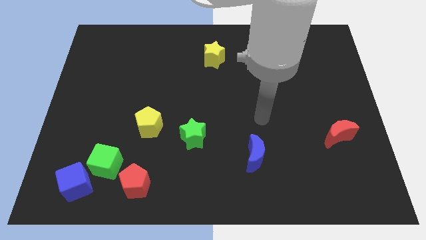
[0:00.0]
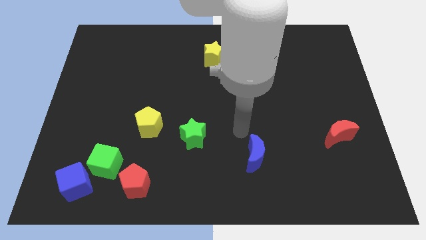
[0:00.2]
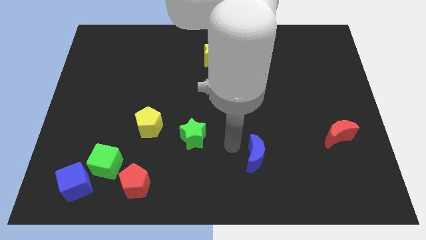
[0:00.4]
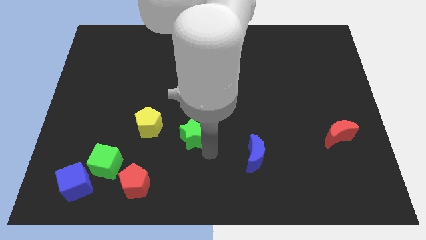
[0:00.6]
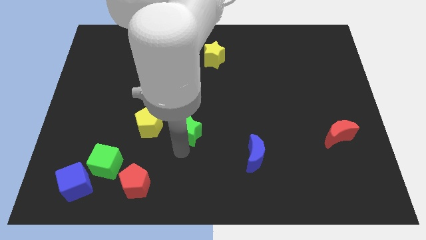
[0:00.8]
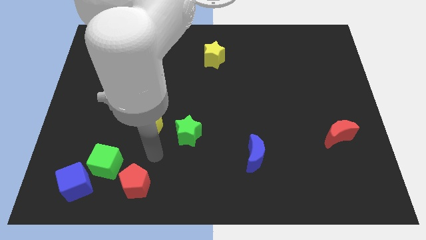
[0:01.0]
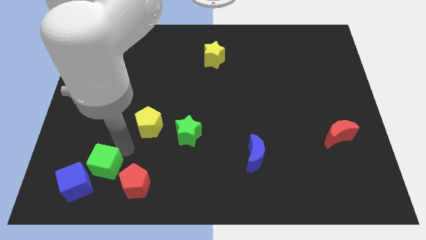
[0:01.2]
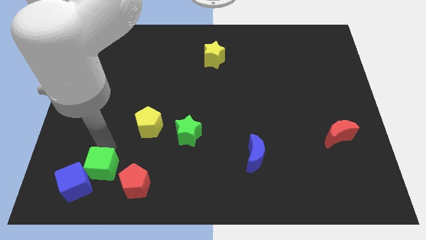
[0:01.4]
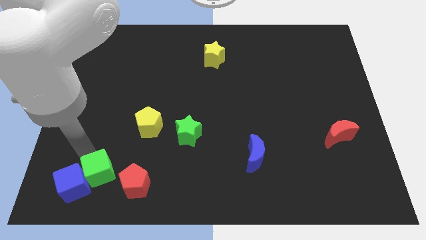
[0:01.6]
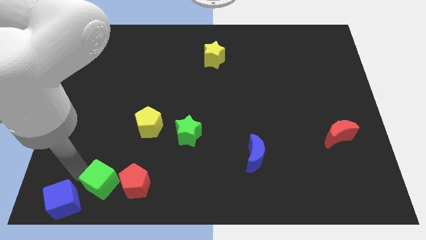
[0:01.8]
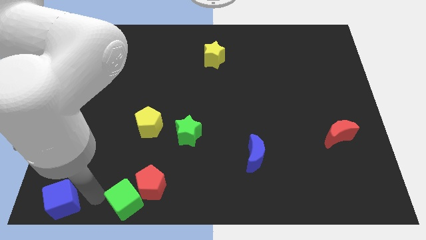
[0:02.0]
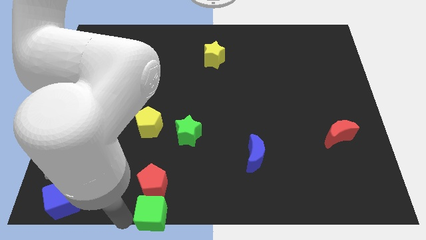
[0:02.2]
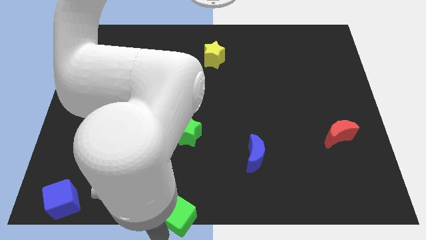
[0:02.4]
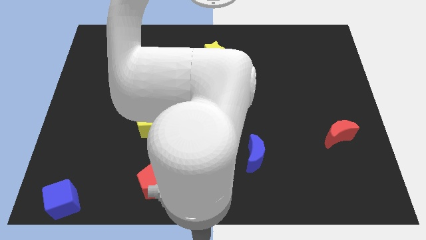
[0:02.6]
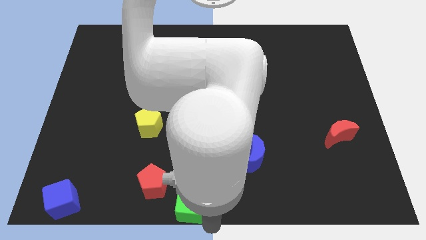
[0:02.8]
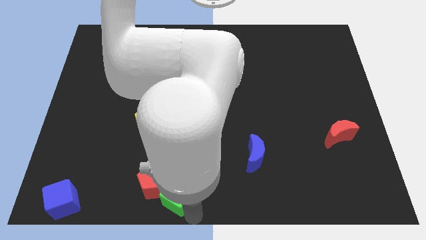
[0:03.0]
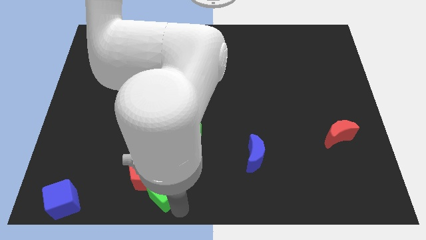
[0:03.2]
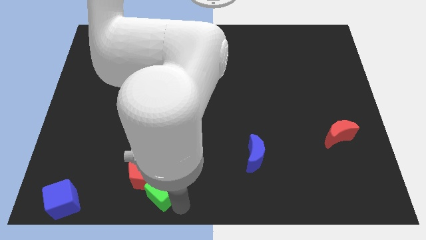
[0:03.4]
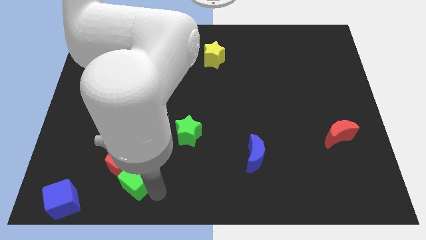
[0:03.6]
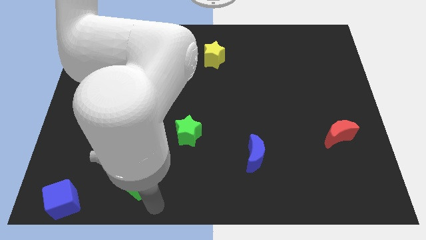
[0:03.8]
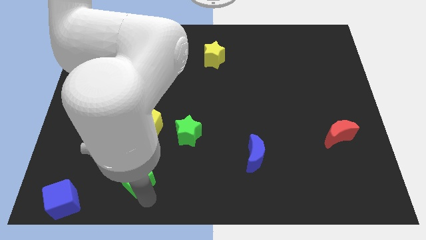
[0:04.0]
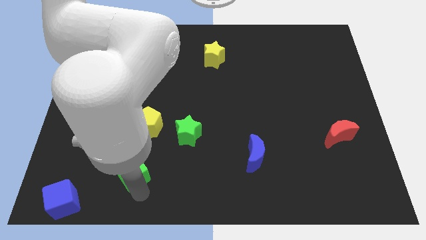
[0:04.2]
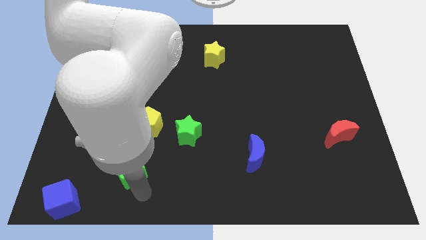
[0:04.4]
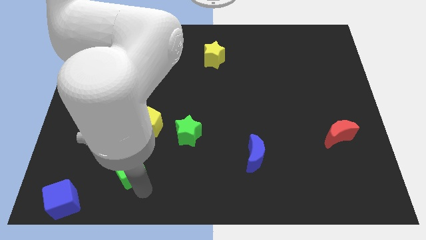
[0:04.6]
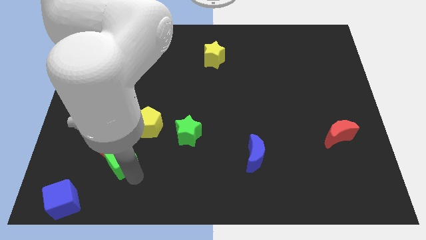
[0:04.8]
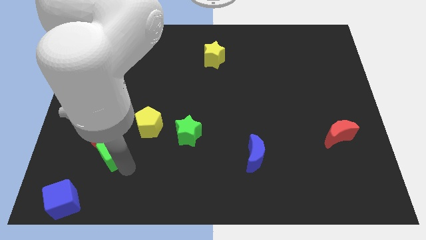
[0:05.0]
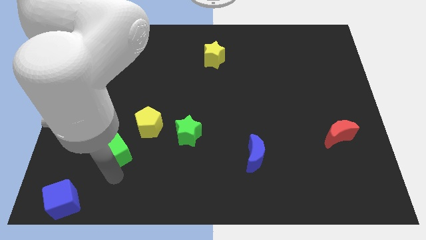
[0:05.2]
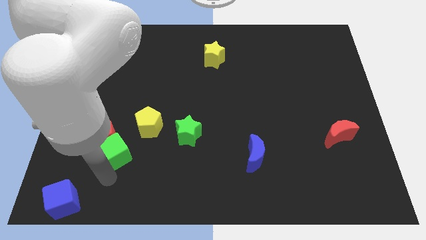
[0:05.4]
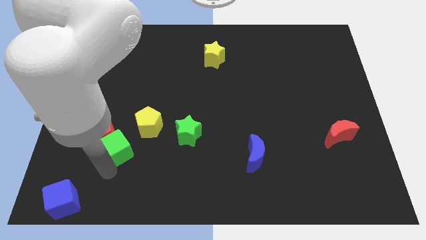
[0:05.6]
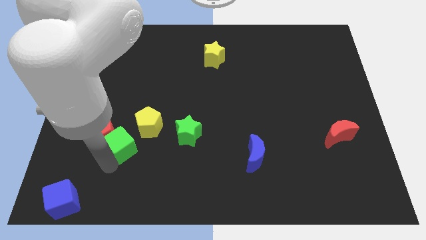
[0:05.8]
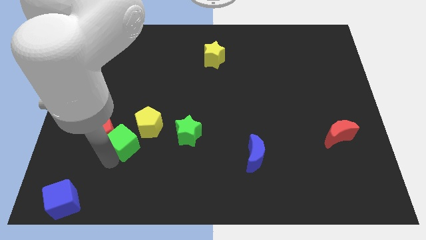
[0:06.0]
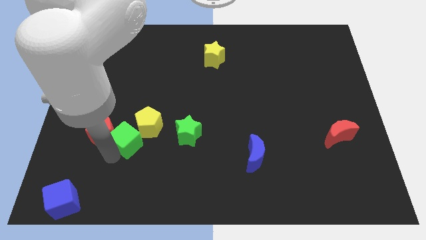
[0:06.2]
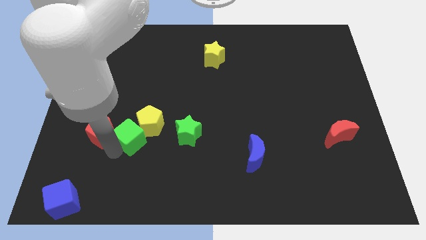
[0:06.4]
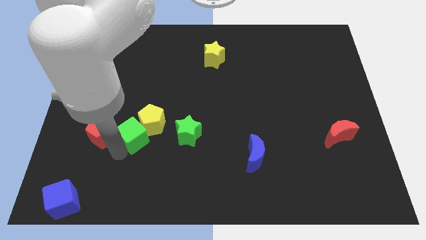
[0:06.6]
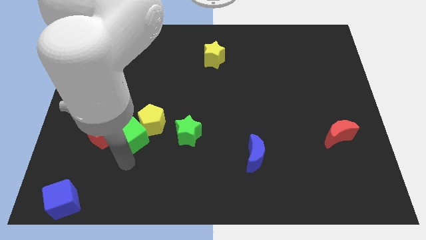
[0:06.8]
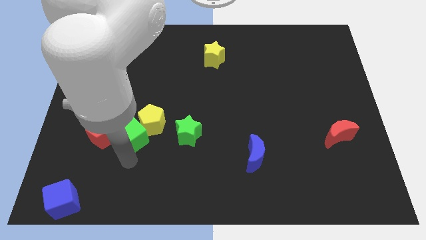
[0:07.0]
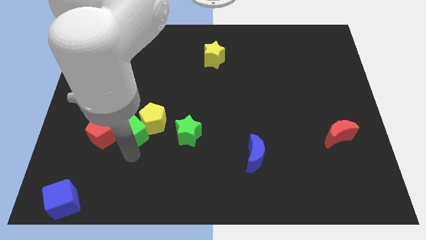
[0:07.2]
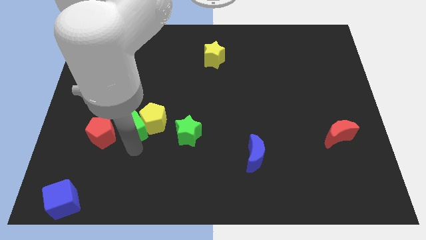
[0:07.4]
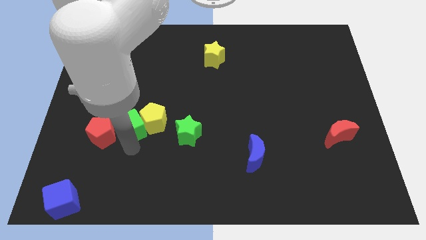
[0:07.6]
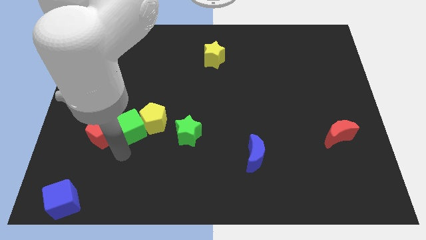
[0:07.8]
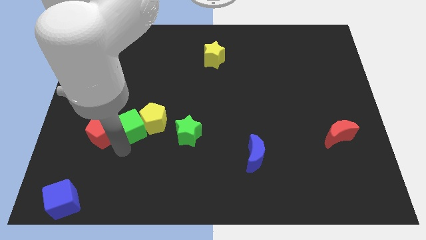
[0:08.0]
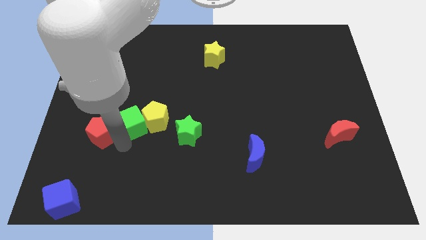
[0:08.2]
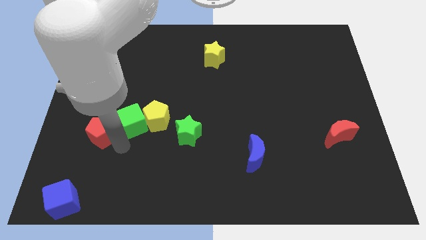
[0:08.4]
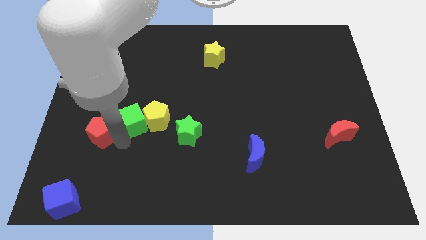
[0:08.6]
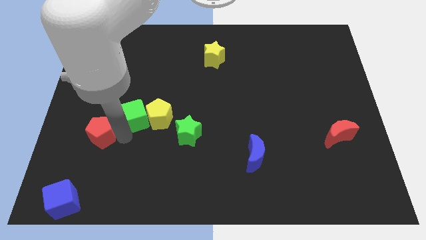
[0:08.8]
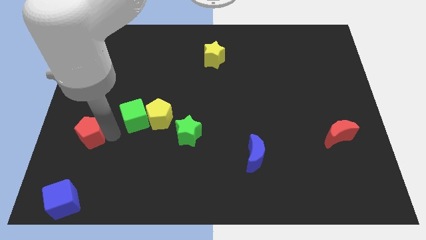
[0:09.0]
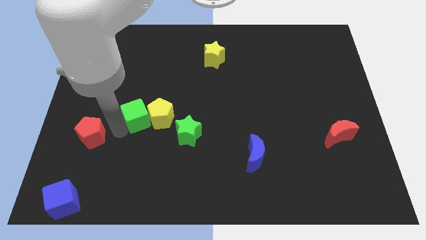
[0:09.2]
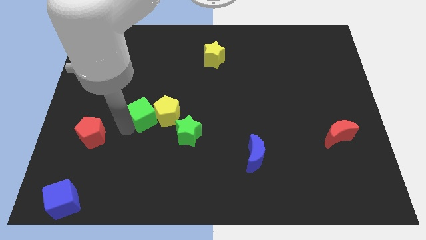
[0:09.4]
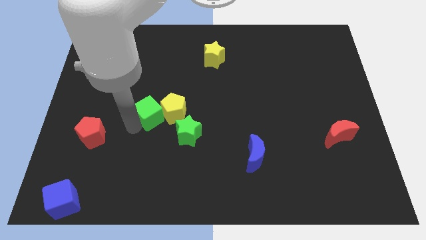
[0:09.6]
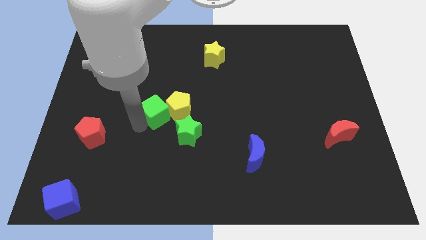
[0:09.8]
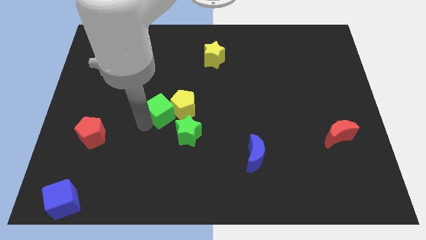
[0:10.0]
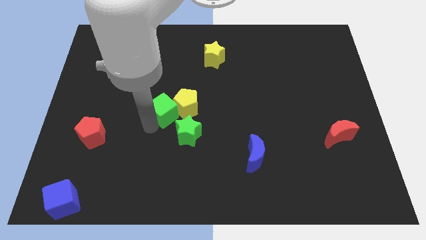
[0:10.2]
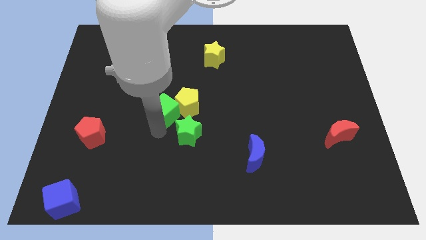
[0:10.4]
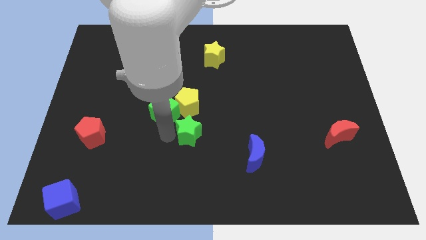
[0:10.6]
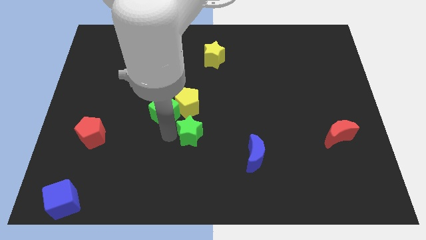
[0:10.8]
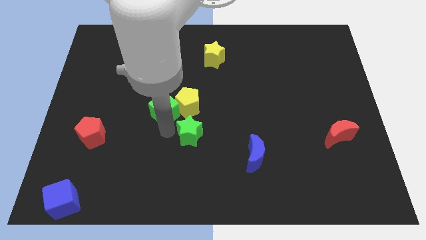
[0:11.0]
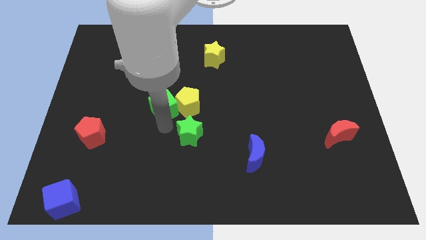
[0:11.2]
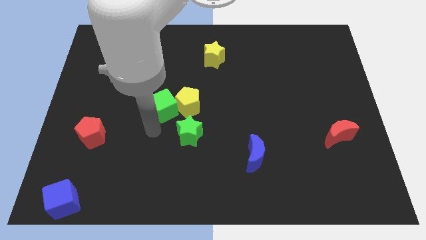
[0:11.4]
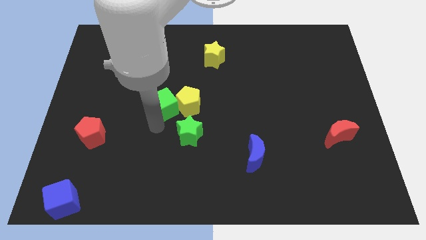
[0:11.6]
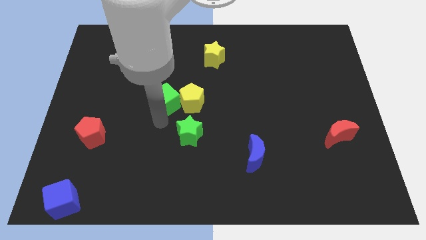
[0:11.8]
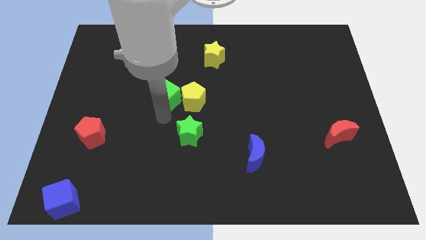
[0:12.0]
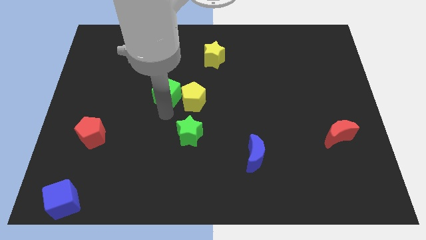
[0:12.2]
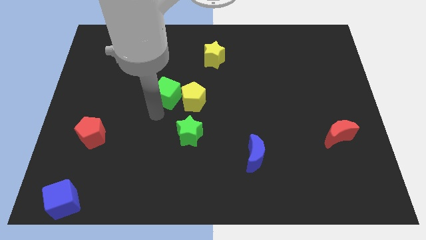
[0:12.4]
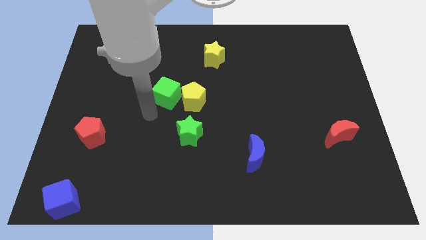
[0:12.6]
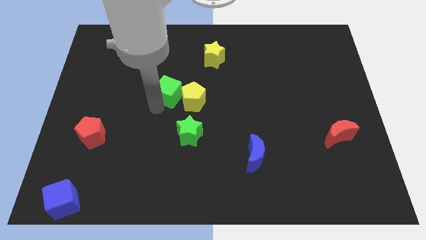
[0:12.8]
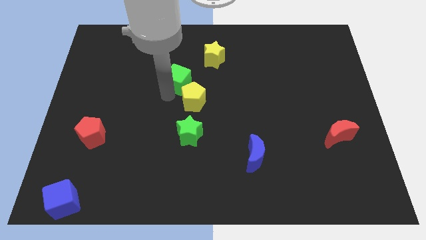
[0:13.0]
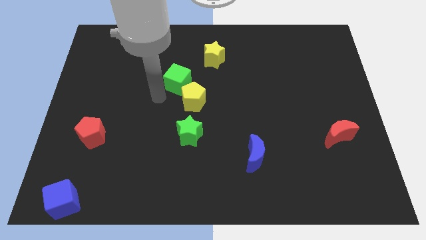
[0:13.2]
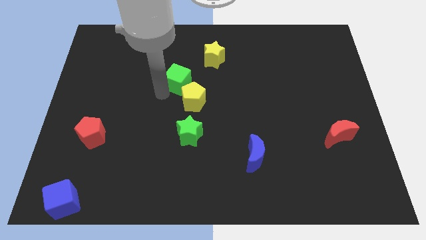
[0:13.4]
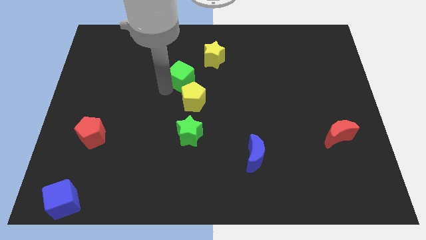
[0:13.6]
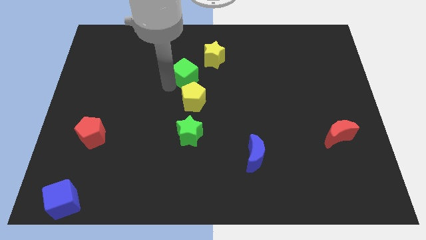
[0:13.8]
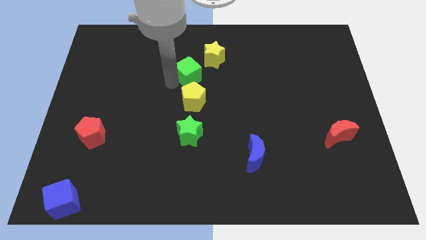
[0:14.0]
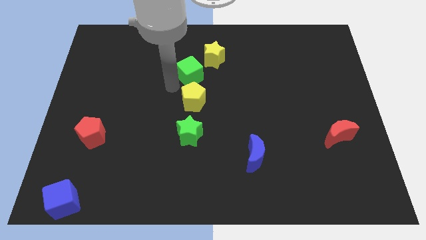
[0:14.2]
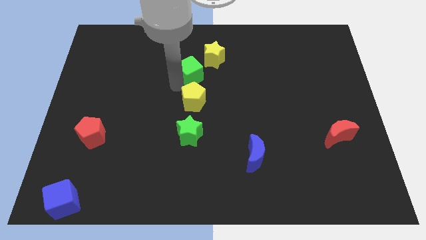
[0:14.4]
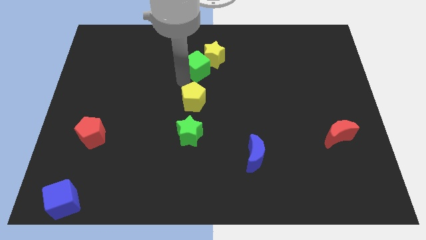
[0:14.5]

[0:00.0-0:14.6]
move the green cube to the yellow star
